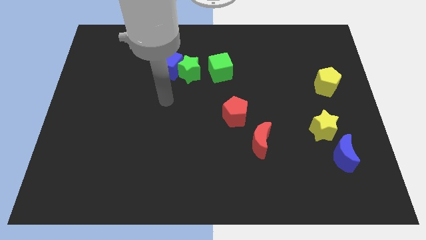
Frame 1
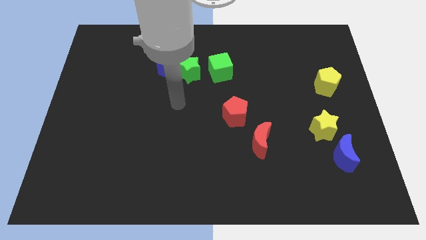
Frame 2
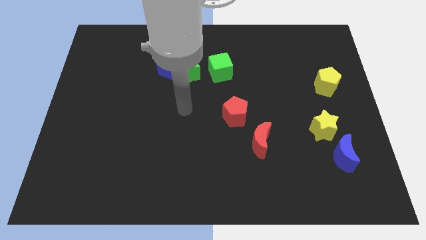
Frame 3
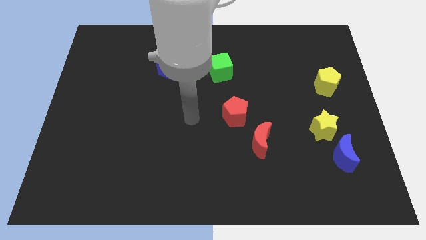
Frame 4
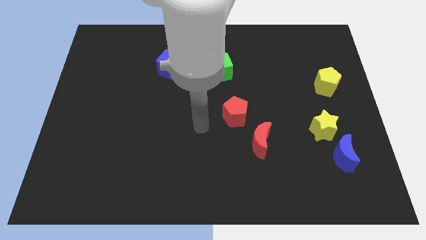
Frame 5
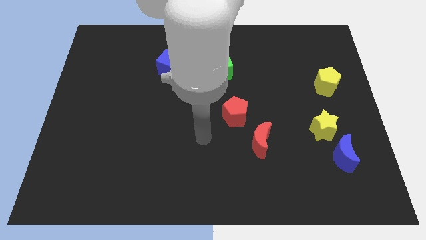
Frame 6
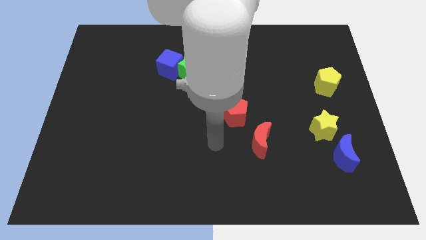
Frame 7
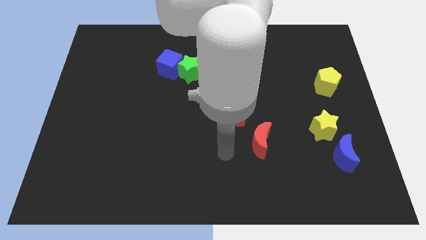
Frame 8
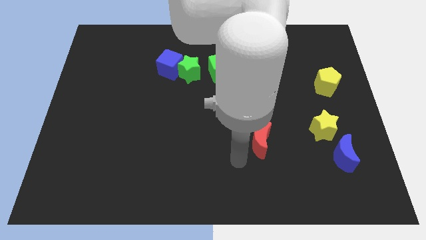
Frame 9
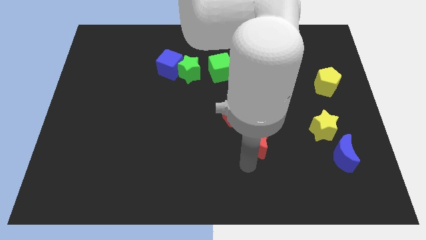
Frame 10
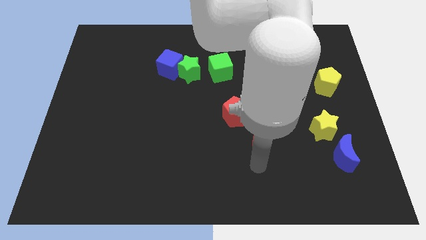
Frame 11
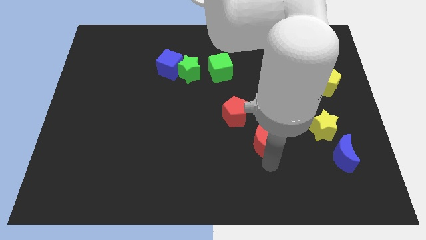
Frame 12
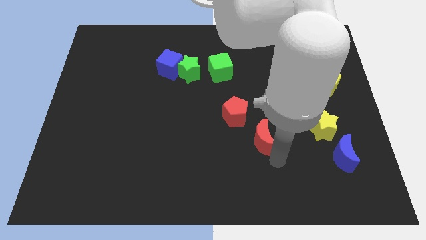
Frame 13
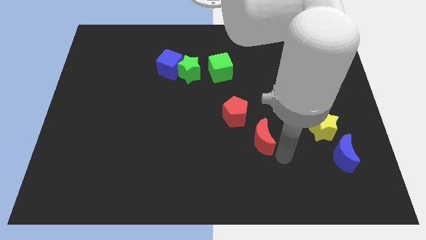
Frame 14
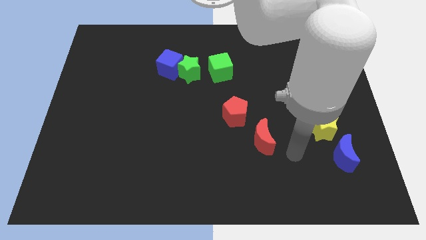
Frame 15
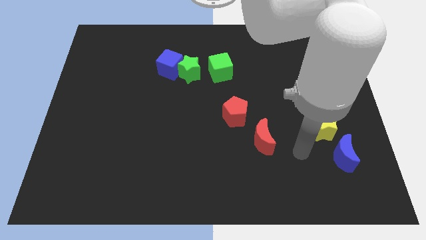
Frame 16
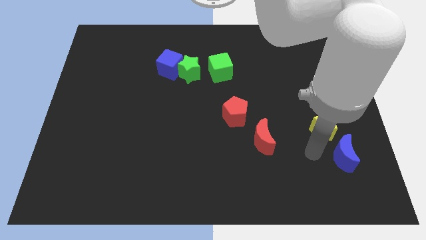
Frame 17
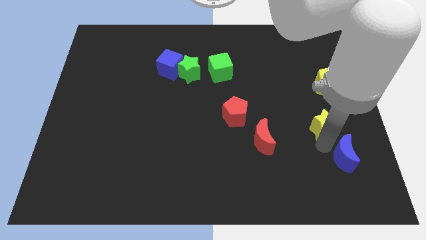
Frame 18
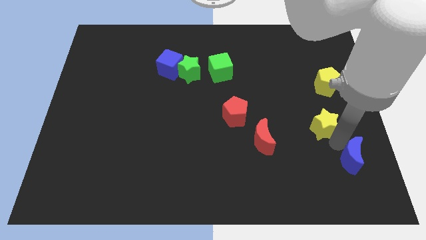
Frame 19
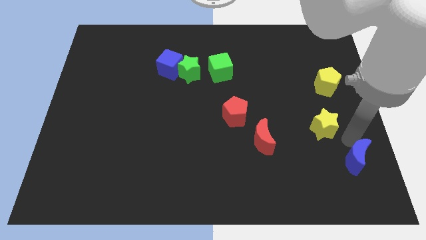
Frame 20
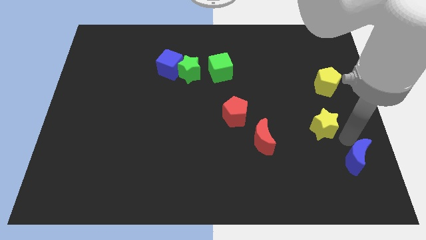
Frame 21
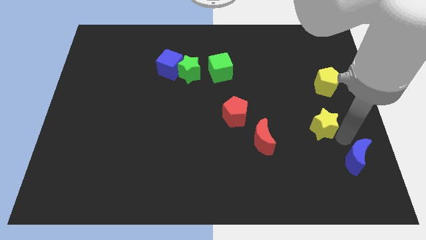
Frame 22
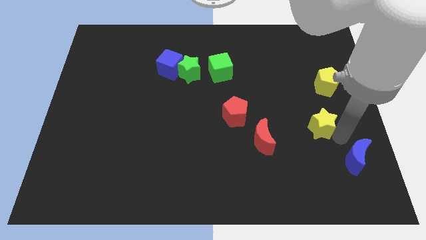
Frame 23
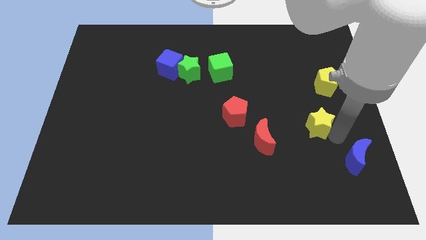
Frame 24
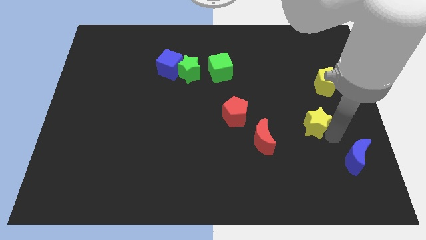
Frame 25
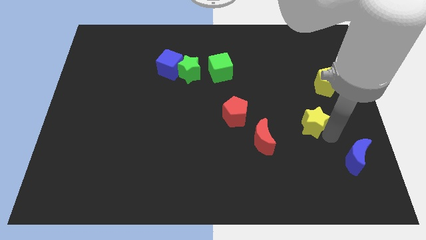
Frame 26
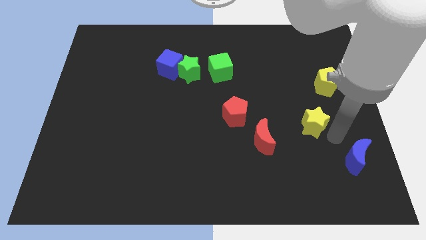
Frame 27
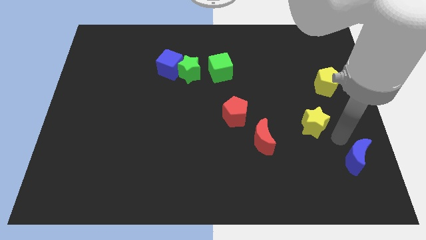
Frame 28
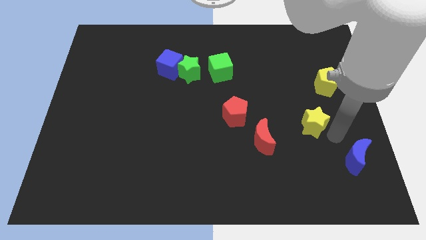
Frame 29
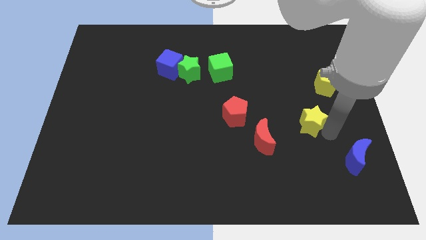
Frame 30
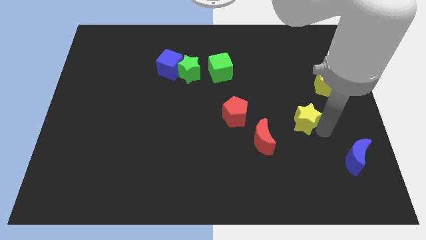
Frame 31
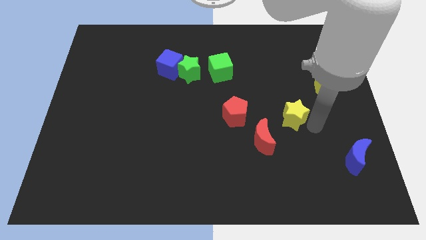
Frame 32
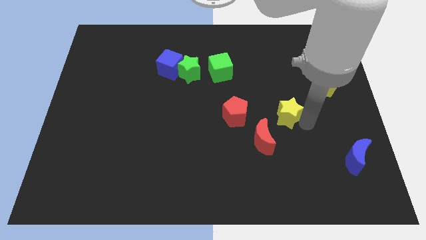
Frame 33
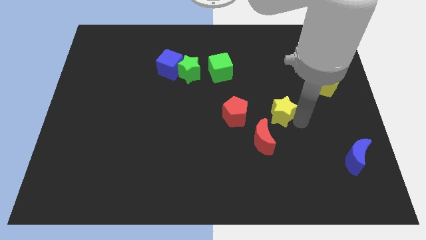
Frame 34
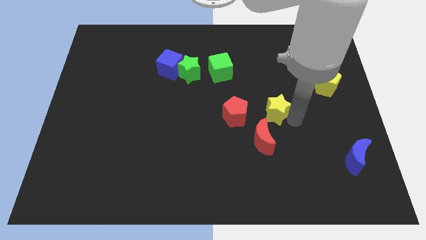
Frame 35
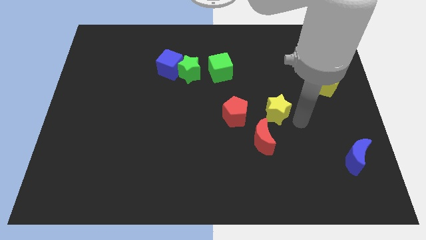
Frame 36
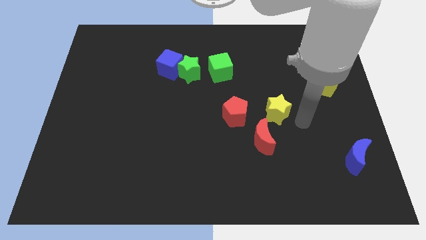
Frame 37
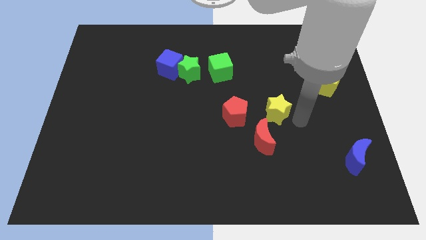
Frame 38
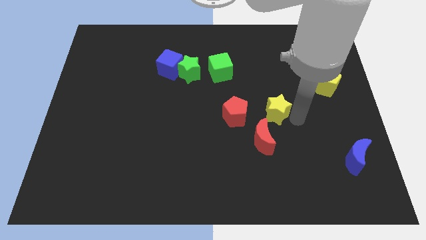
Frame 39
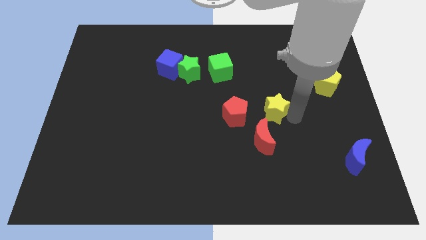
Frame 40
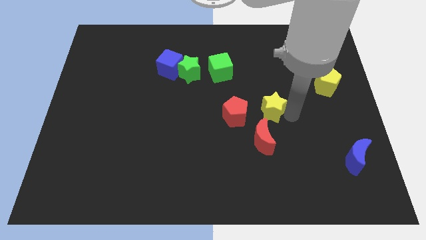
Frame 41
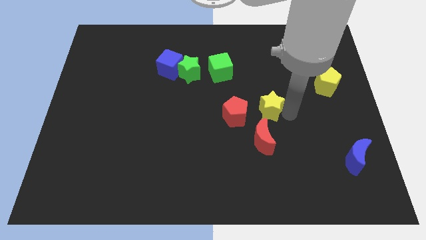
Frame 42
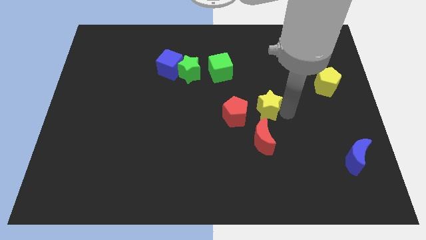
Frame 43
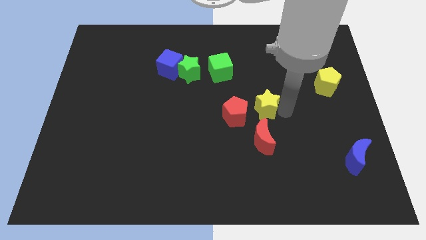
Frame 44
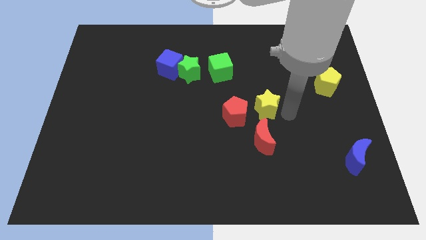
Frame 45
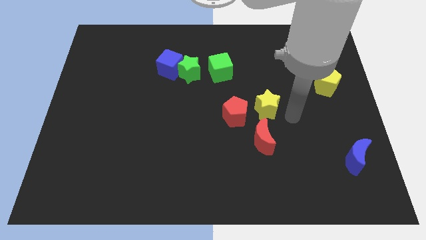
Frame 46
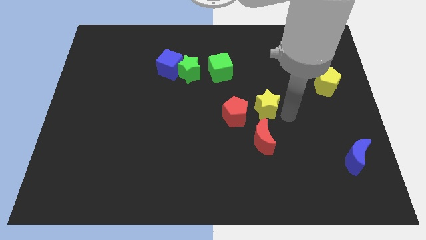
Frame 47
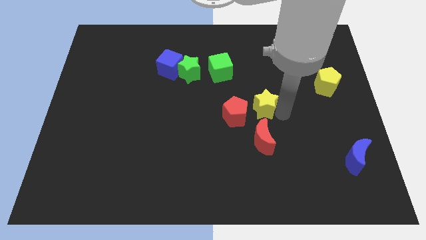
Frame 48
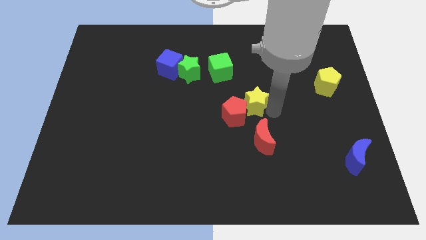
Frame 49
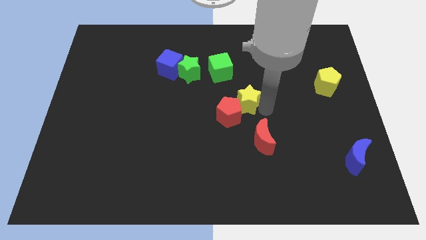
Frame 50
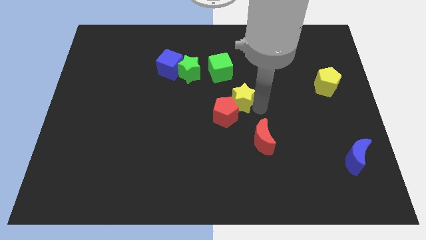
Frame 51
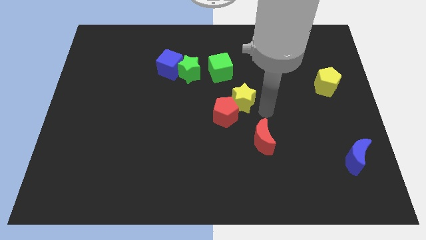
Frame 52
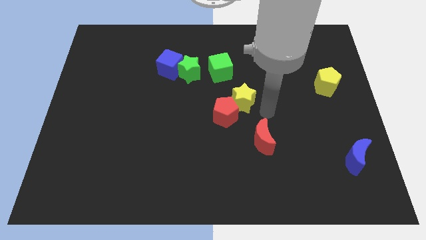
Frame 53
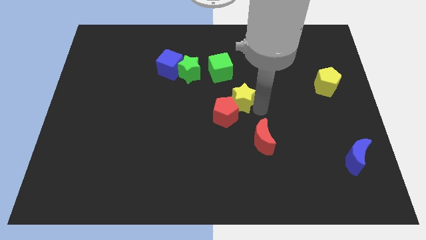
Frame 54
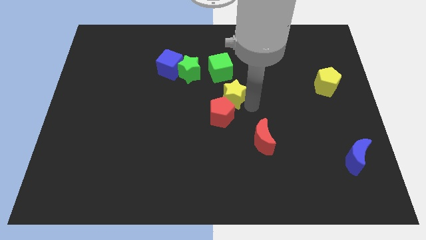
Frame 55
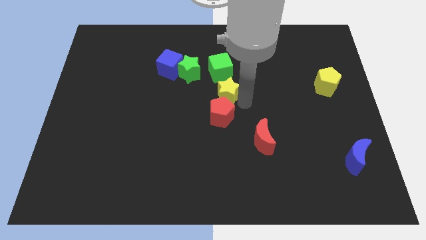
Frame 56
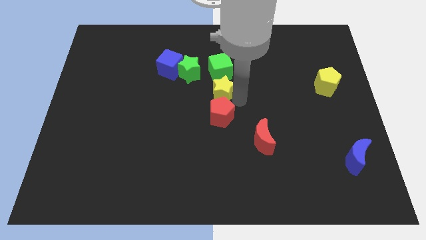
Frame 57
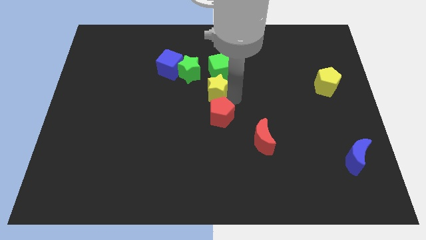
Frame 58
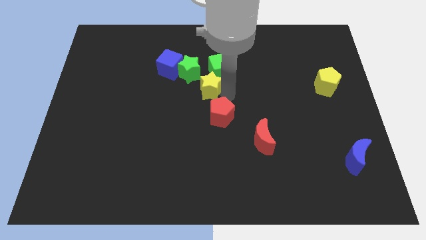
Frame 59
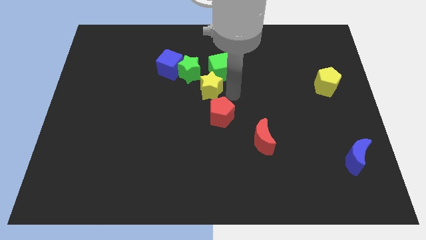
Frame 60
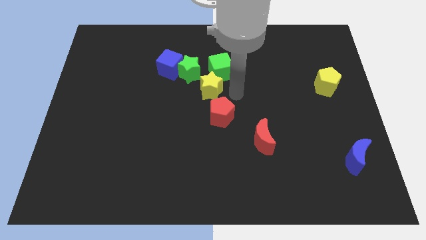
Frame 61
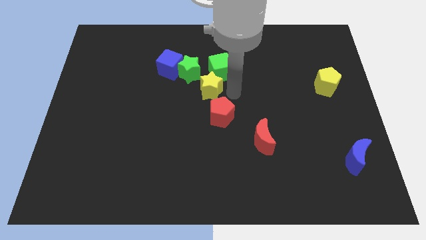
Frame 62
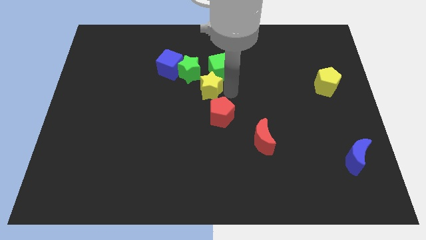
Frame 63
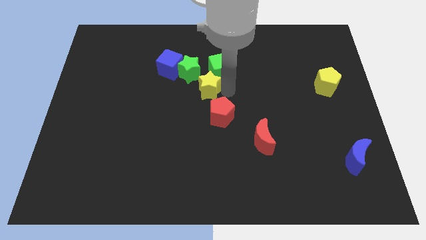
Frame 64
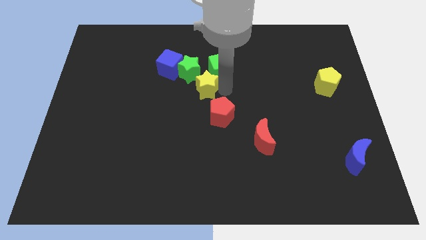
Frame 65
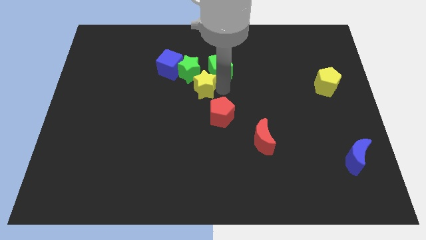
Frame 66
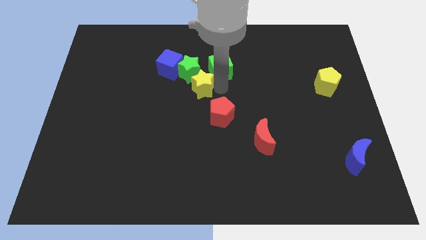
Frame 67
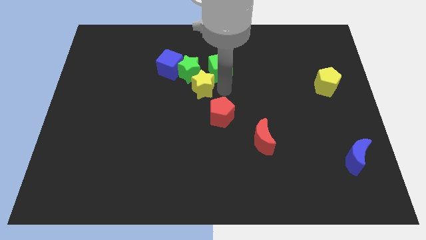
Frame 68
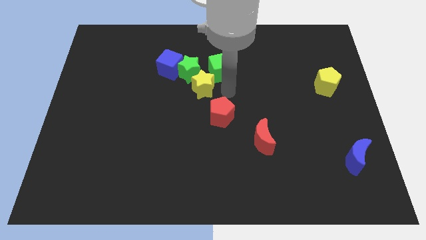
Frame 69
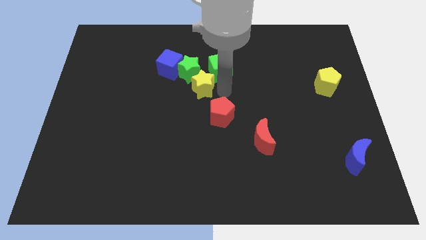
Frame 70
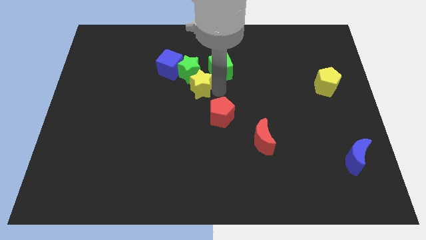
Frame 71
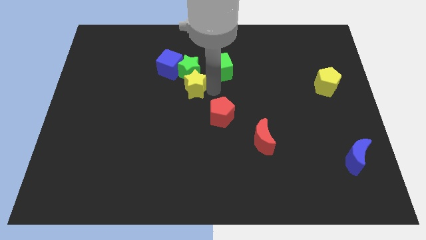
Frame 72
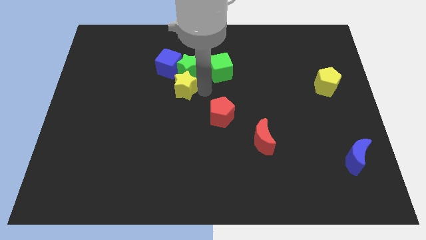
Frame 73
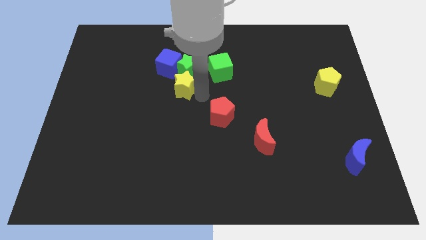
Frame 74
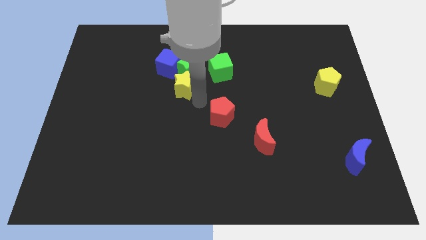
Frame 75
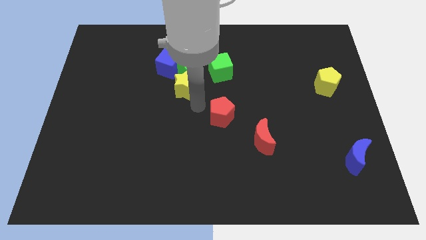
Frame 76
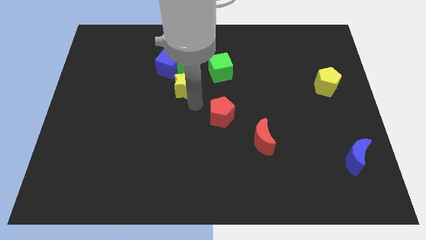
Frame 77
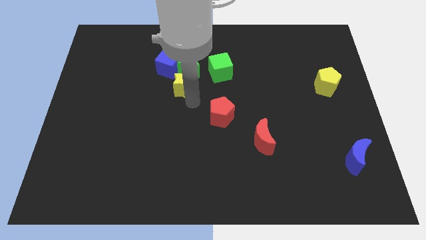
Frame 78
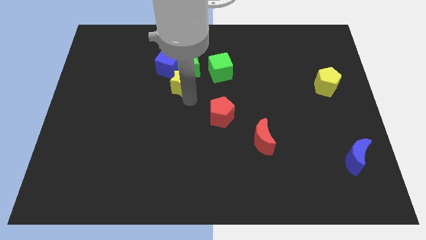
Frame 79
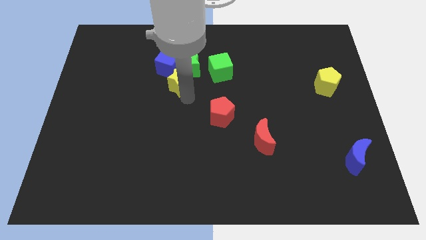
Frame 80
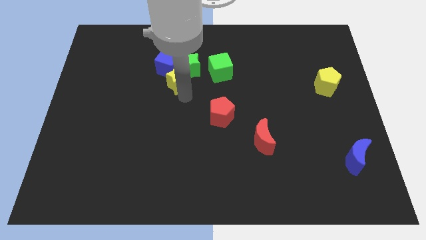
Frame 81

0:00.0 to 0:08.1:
push the yellow star next to the blue cube
